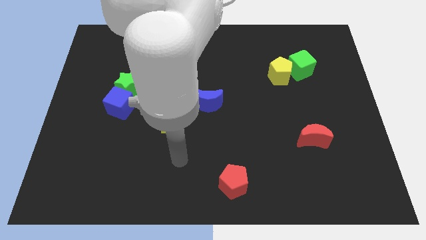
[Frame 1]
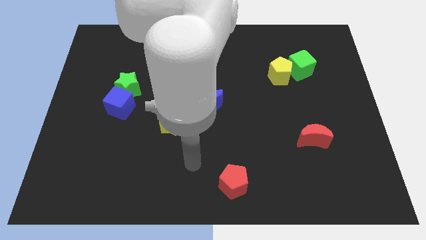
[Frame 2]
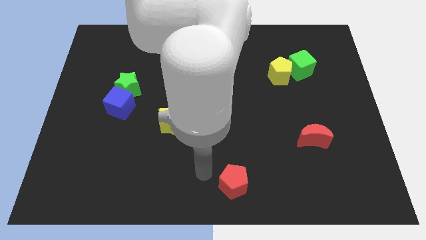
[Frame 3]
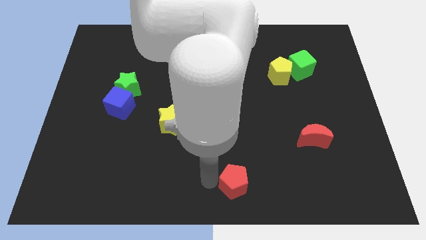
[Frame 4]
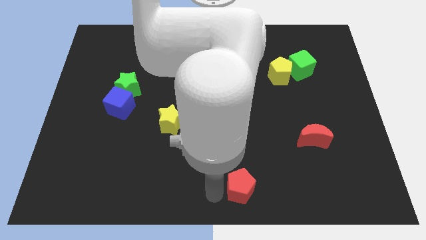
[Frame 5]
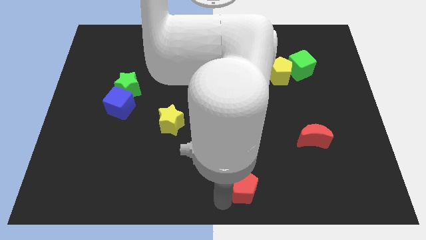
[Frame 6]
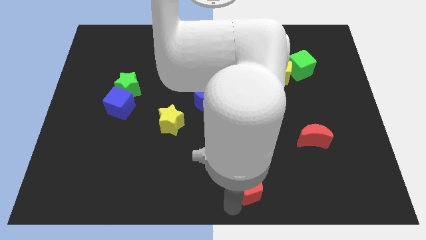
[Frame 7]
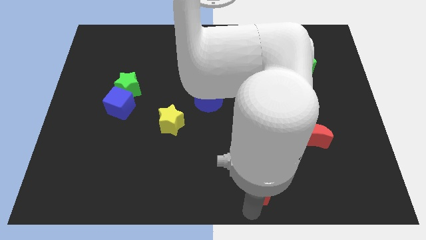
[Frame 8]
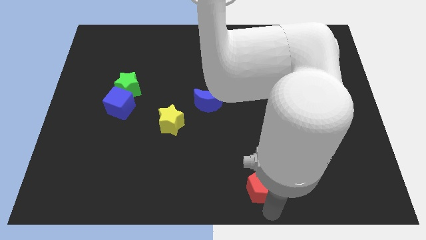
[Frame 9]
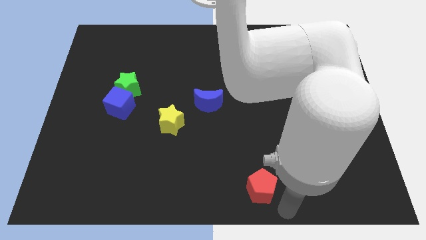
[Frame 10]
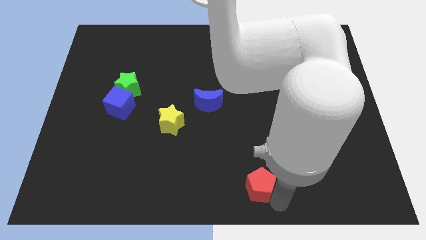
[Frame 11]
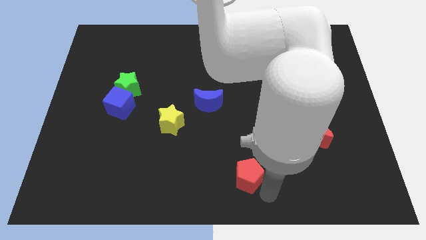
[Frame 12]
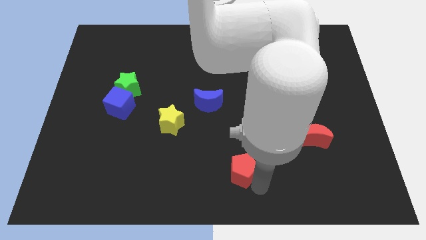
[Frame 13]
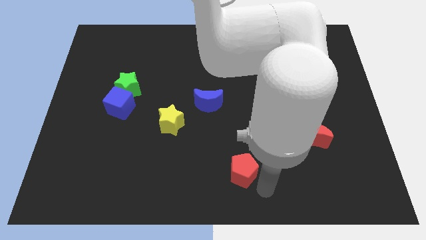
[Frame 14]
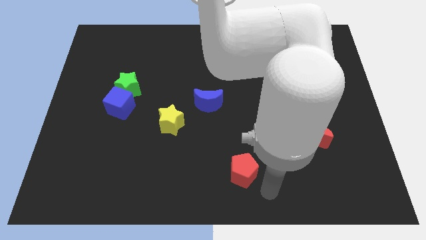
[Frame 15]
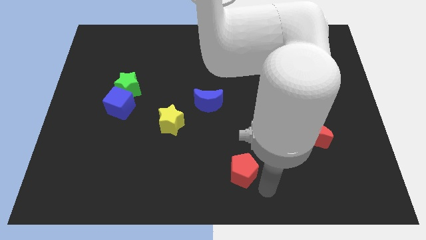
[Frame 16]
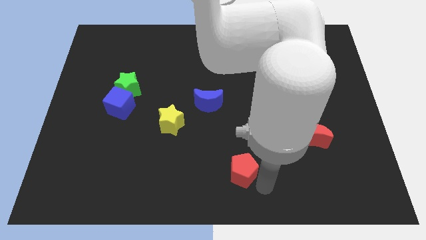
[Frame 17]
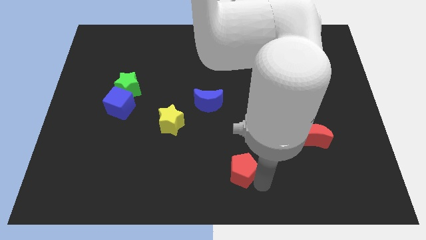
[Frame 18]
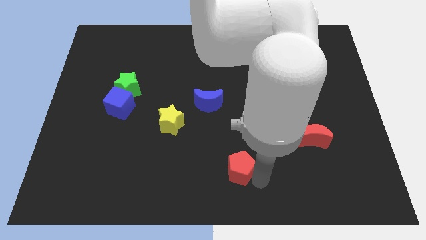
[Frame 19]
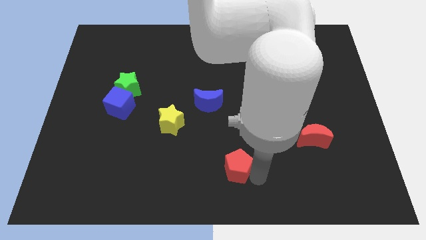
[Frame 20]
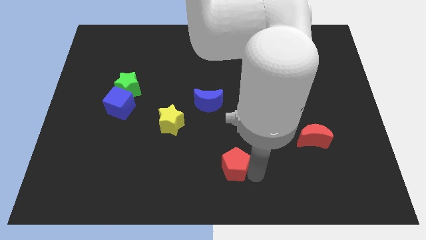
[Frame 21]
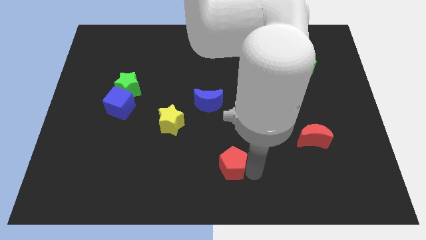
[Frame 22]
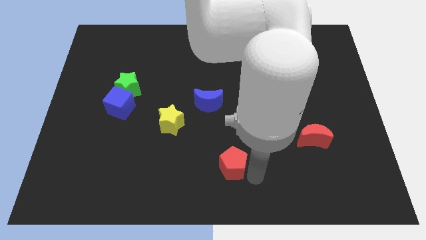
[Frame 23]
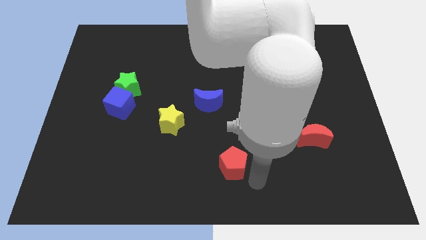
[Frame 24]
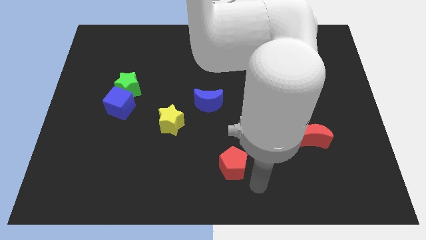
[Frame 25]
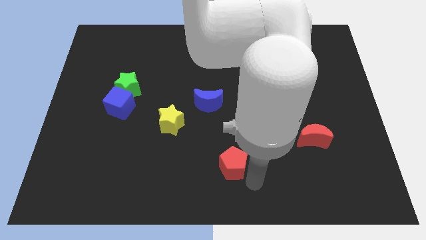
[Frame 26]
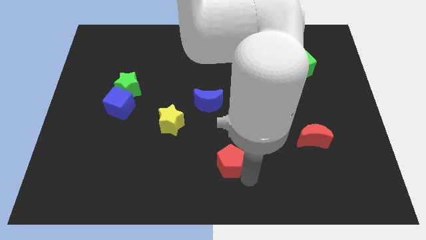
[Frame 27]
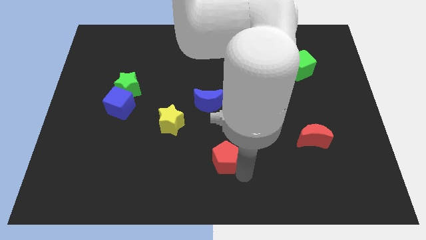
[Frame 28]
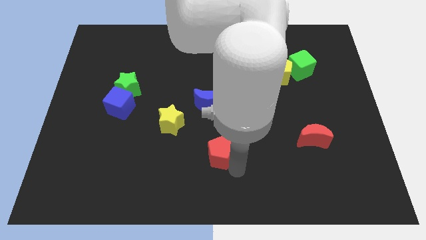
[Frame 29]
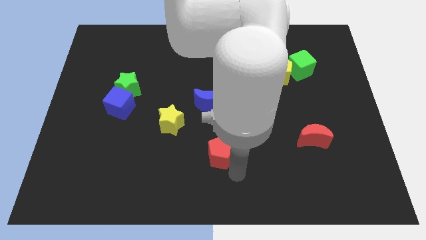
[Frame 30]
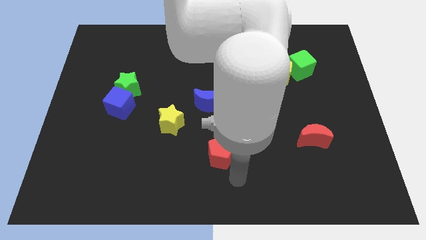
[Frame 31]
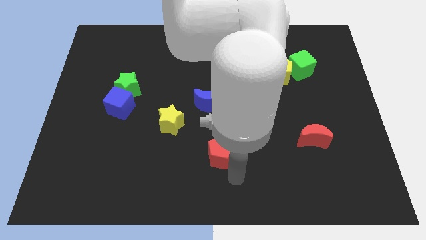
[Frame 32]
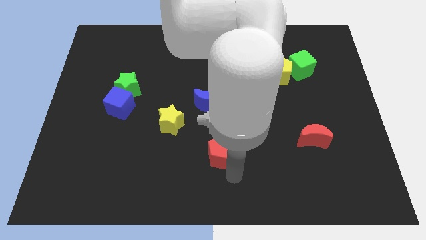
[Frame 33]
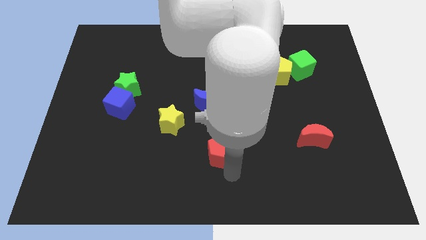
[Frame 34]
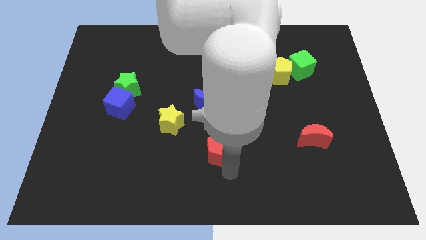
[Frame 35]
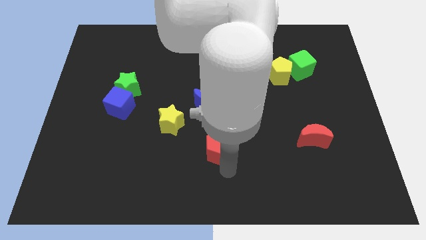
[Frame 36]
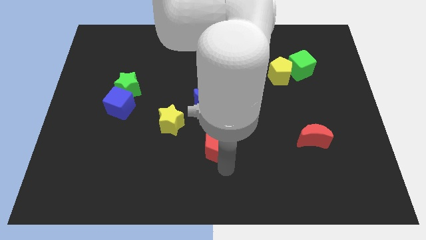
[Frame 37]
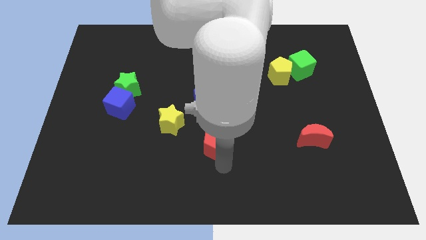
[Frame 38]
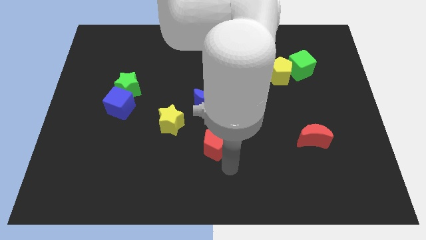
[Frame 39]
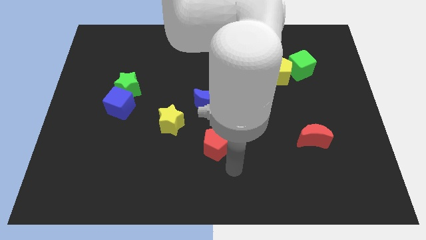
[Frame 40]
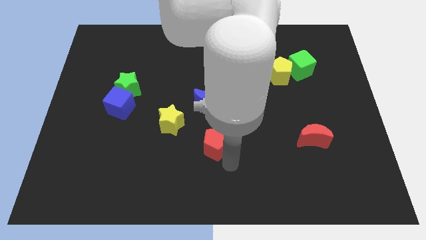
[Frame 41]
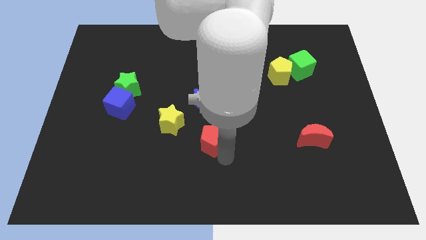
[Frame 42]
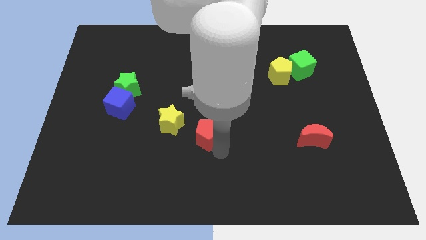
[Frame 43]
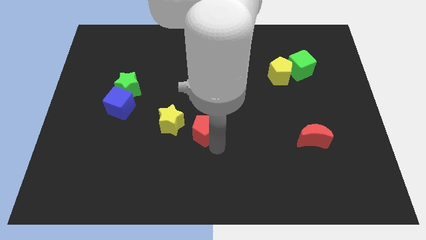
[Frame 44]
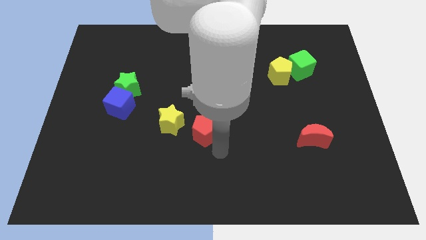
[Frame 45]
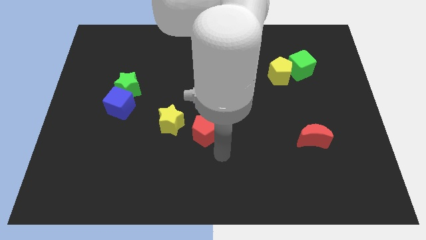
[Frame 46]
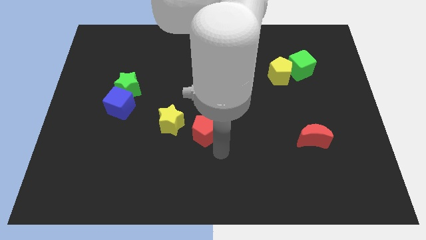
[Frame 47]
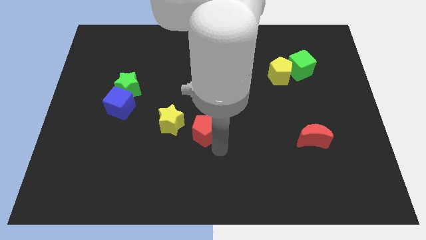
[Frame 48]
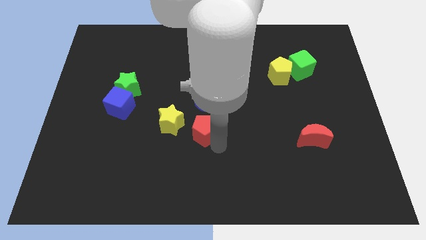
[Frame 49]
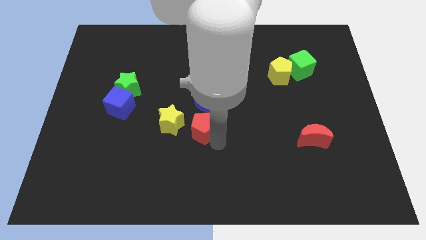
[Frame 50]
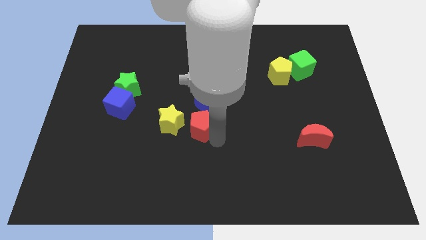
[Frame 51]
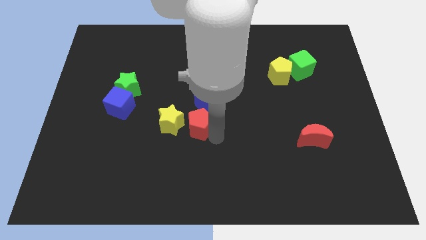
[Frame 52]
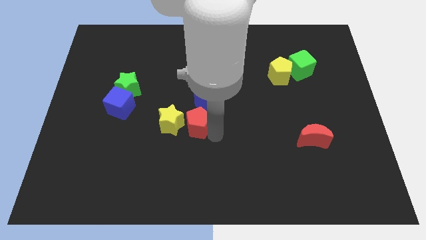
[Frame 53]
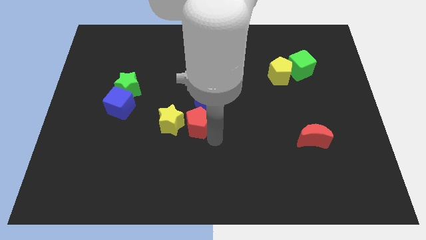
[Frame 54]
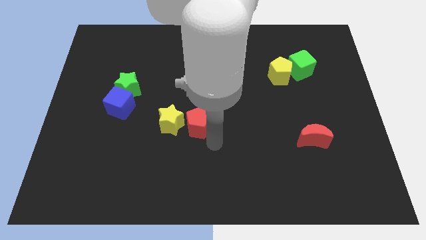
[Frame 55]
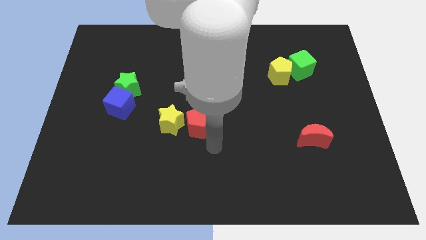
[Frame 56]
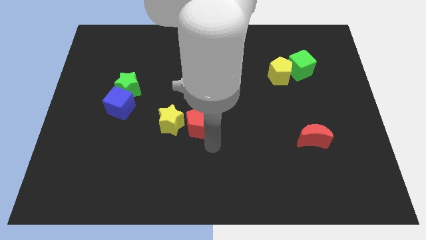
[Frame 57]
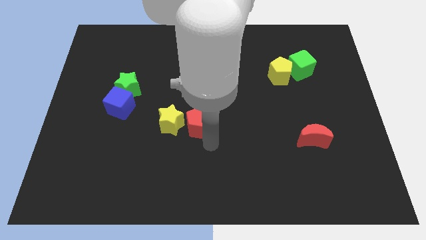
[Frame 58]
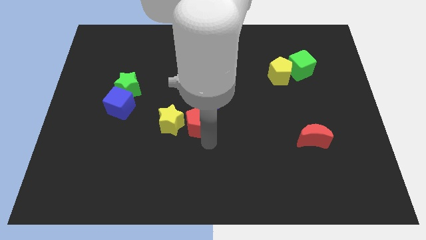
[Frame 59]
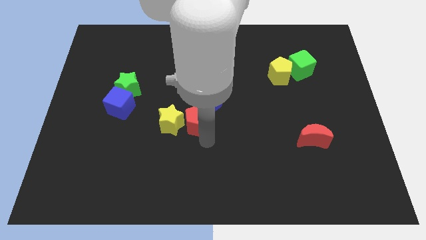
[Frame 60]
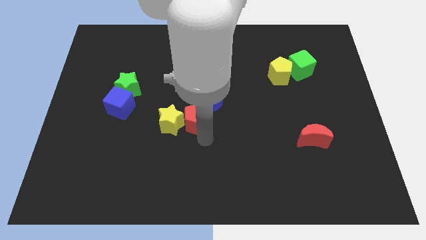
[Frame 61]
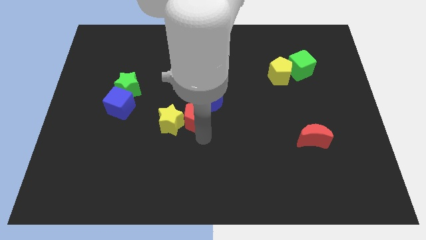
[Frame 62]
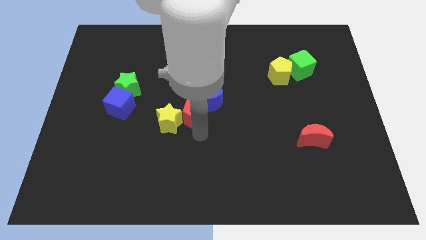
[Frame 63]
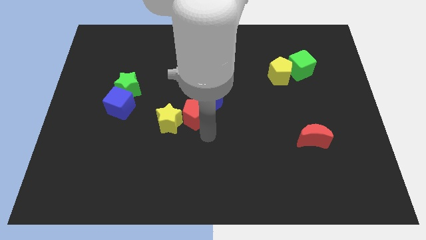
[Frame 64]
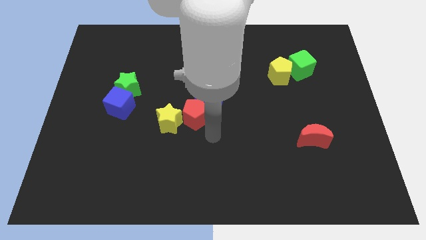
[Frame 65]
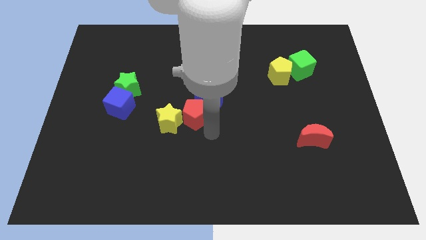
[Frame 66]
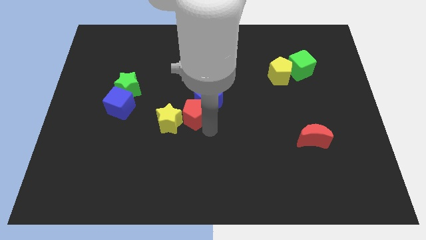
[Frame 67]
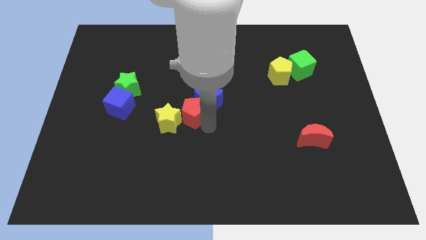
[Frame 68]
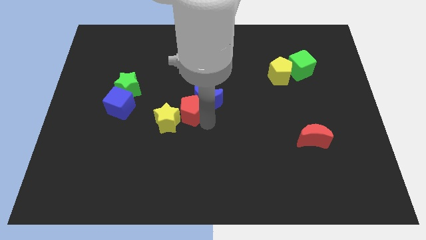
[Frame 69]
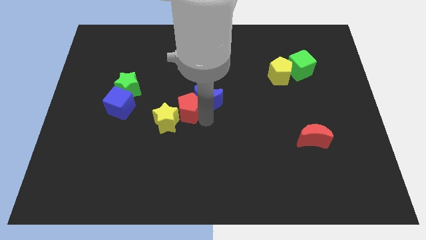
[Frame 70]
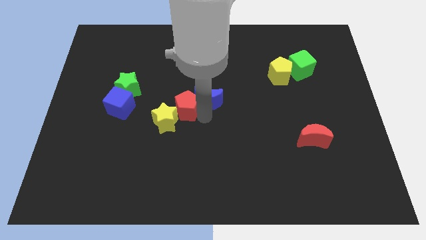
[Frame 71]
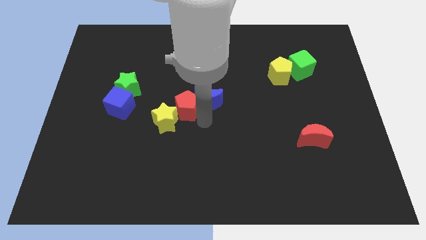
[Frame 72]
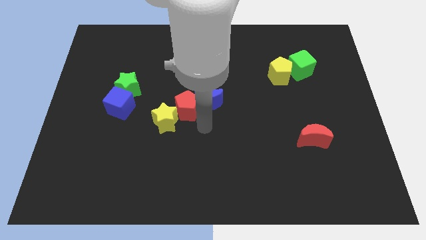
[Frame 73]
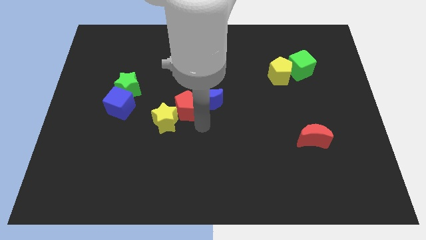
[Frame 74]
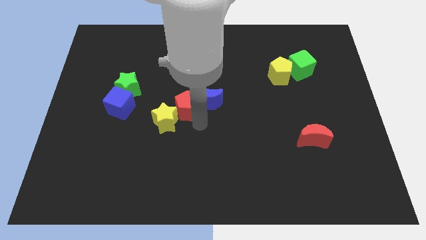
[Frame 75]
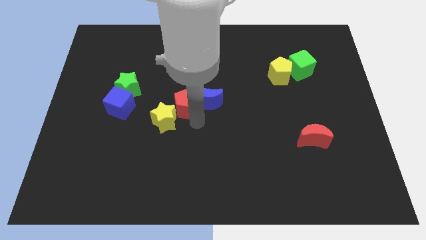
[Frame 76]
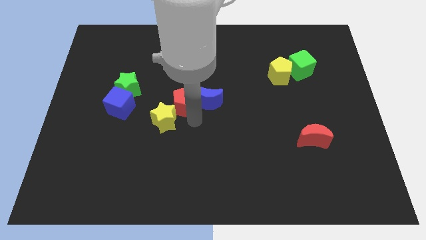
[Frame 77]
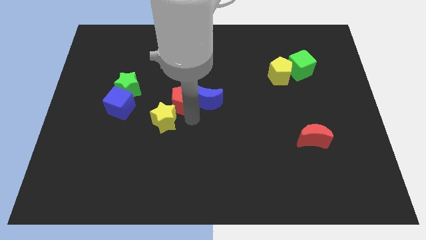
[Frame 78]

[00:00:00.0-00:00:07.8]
slide the red pentagon to the right side of the green star
